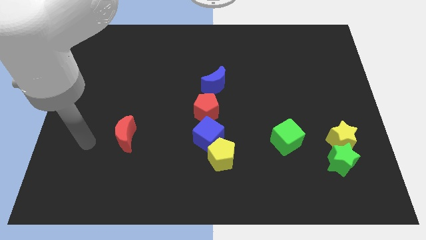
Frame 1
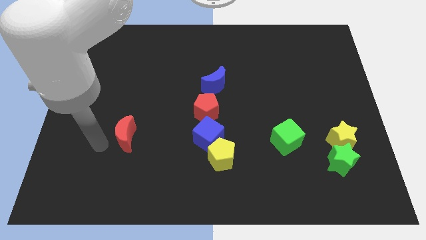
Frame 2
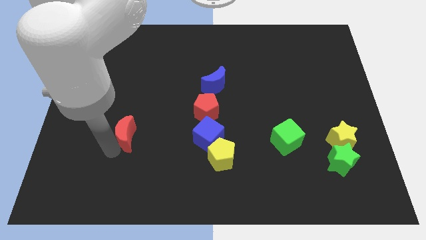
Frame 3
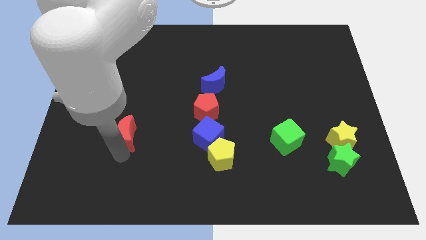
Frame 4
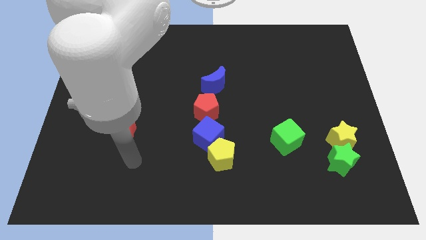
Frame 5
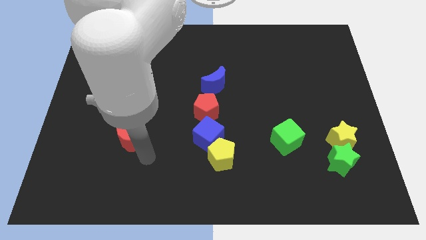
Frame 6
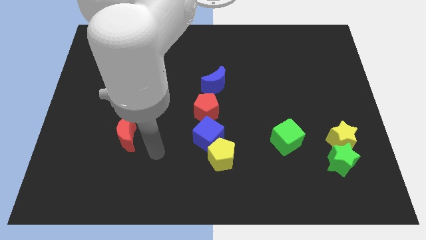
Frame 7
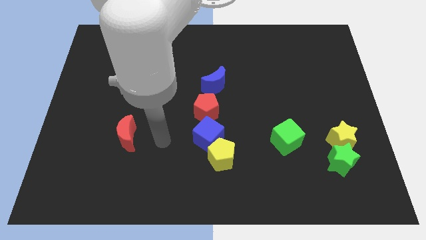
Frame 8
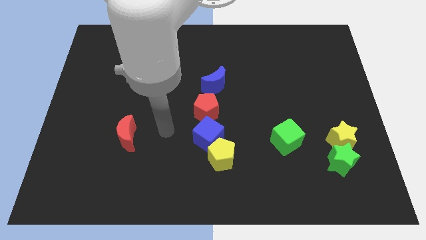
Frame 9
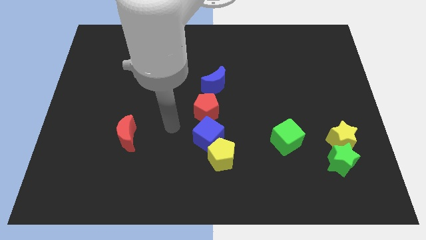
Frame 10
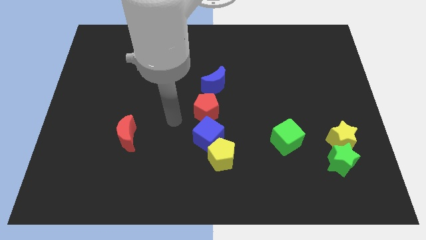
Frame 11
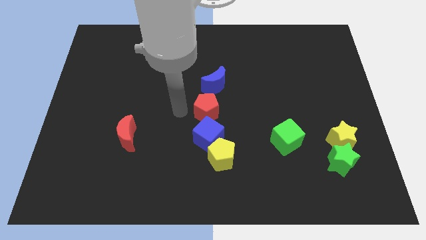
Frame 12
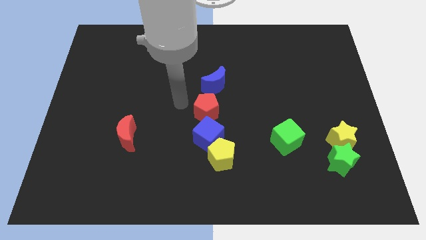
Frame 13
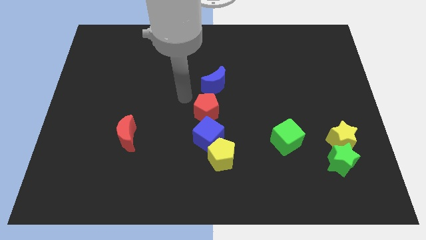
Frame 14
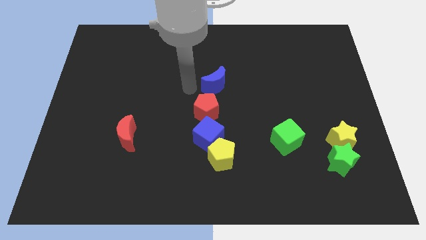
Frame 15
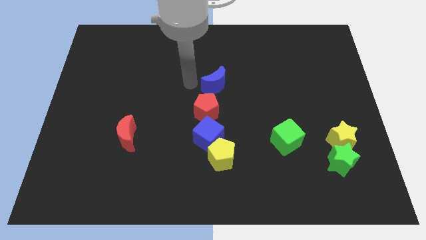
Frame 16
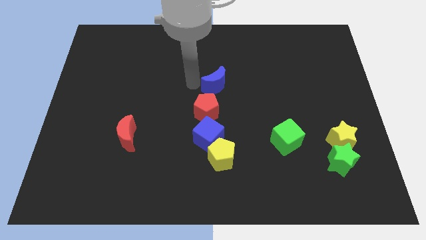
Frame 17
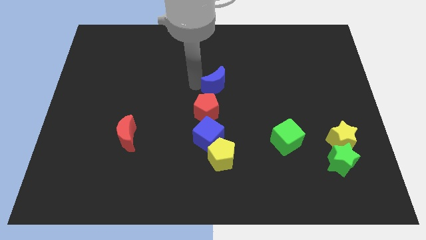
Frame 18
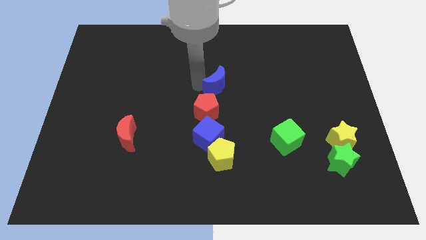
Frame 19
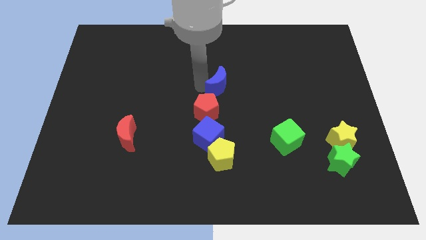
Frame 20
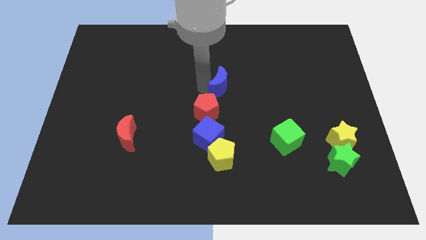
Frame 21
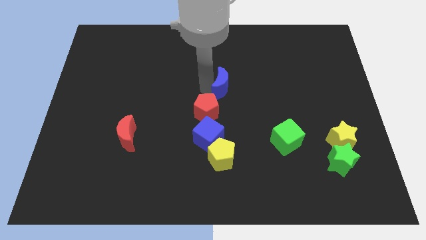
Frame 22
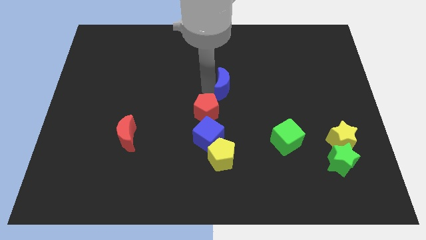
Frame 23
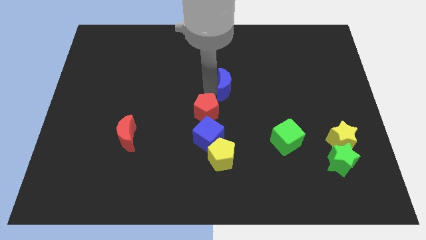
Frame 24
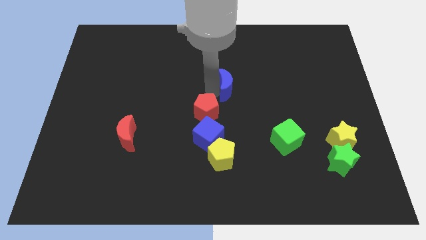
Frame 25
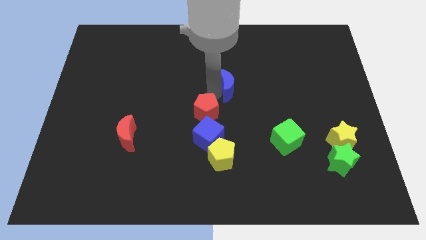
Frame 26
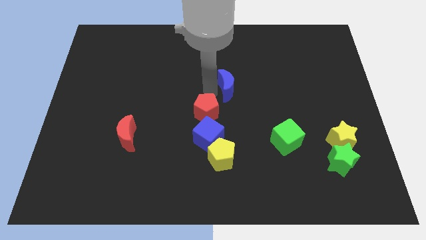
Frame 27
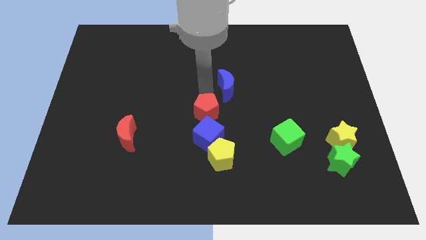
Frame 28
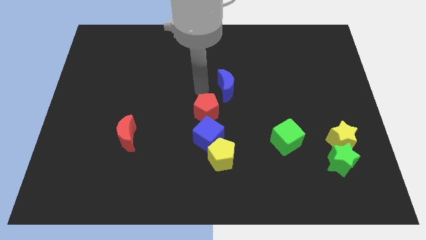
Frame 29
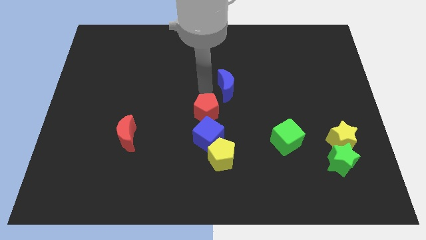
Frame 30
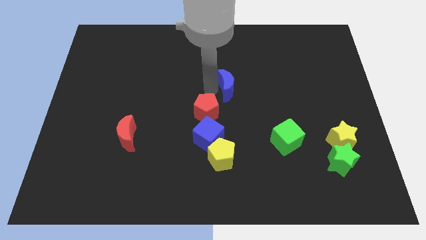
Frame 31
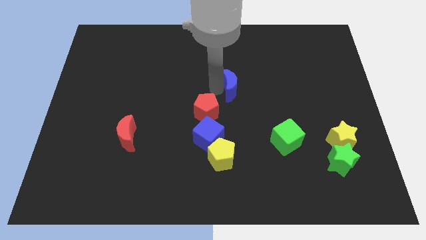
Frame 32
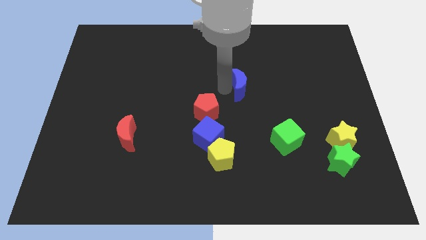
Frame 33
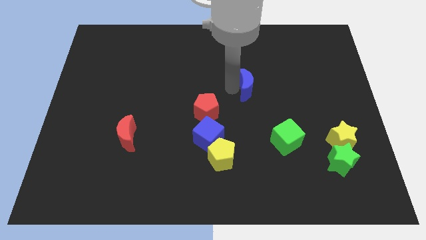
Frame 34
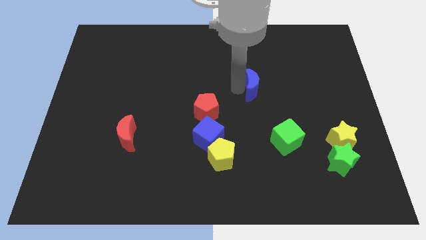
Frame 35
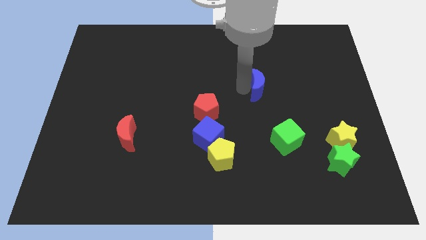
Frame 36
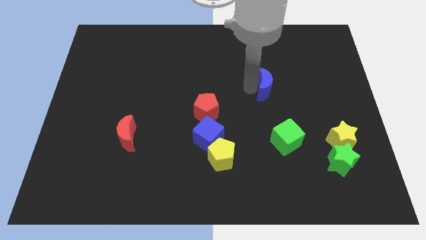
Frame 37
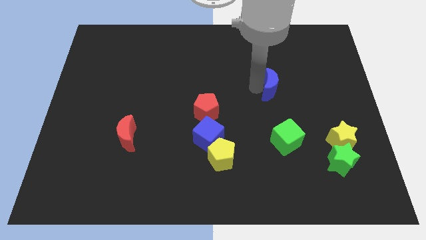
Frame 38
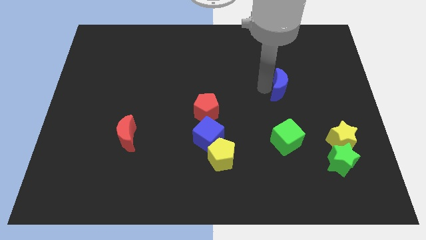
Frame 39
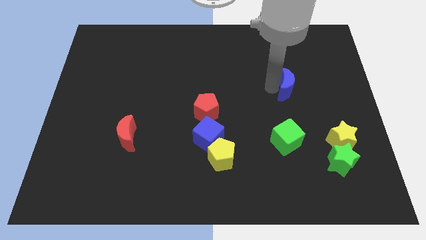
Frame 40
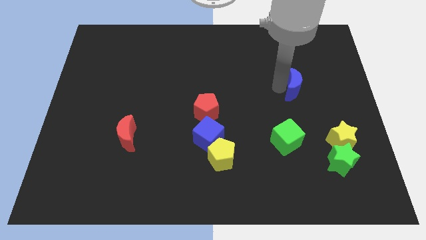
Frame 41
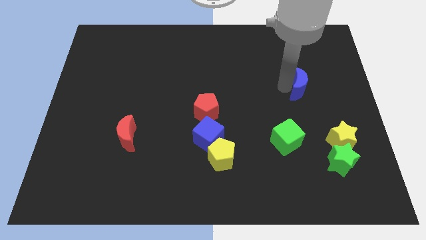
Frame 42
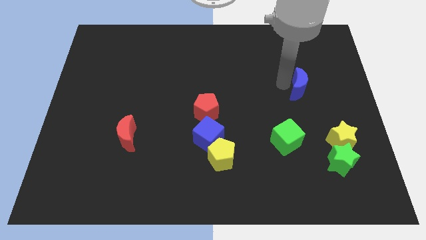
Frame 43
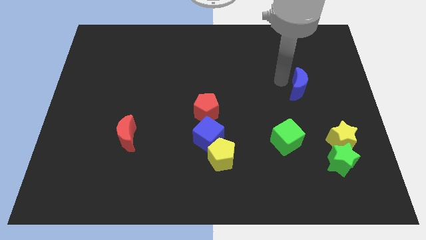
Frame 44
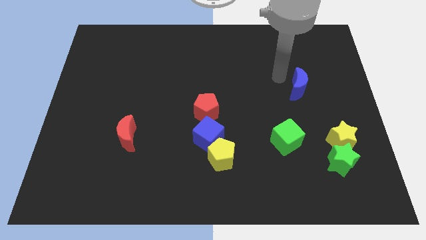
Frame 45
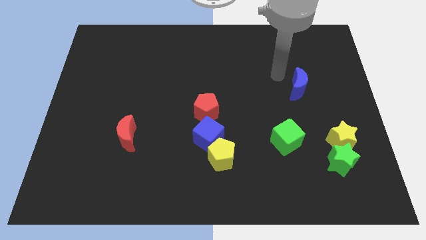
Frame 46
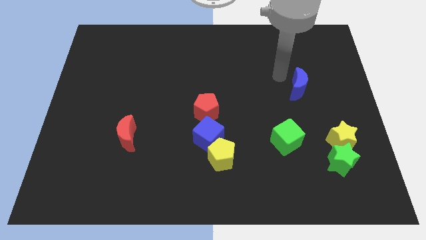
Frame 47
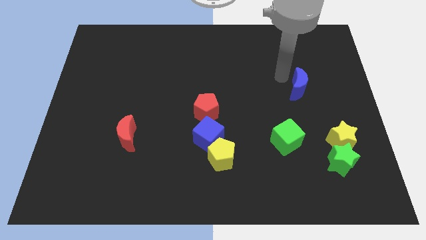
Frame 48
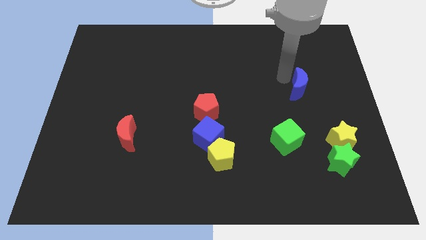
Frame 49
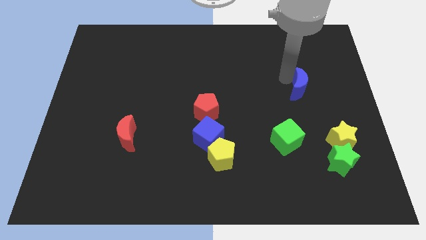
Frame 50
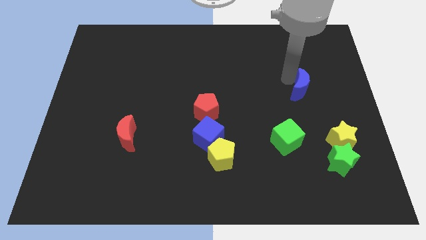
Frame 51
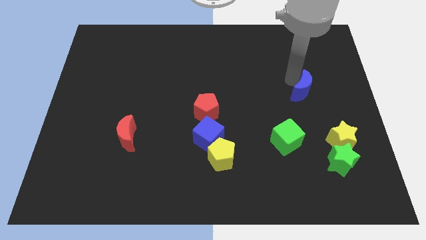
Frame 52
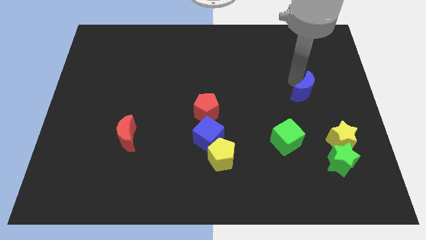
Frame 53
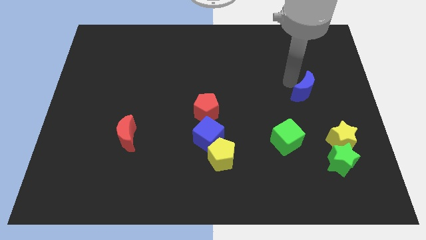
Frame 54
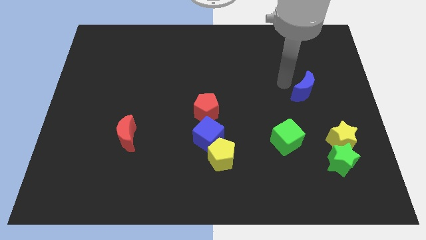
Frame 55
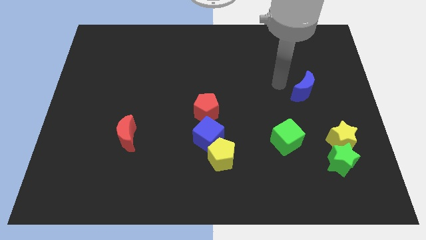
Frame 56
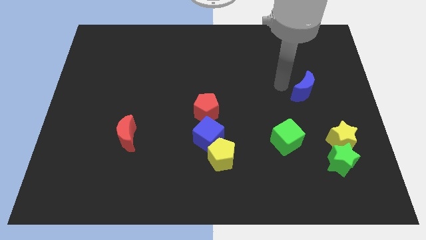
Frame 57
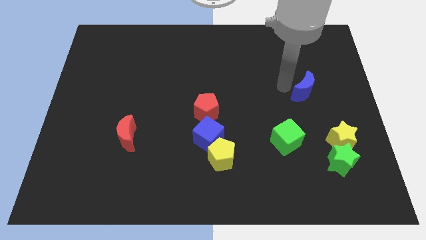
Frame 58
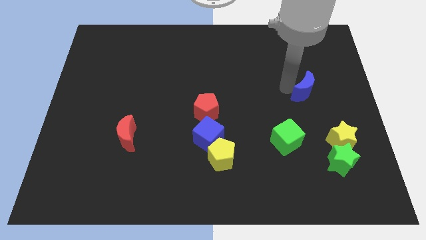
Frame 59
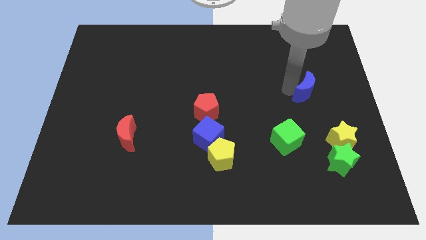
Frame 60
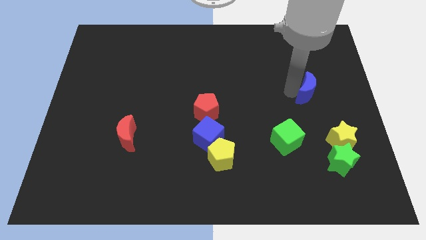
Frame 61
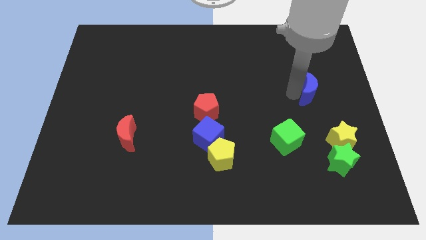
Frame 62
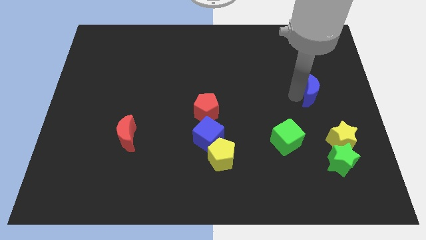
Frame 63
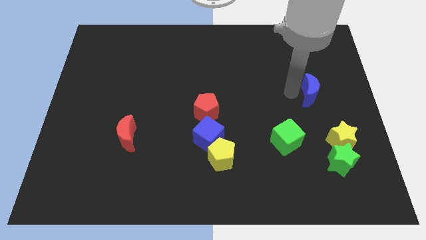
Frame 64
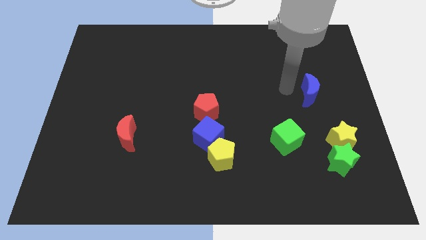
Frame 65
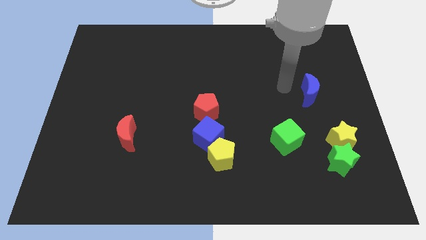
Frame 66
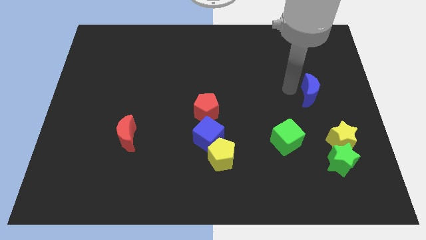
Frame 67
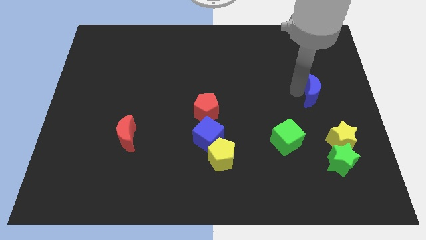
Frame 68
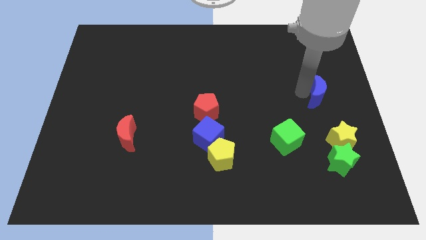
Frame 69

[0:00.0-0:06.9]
slide the blue moon to the right side
